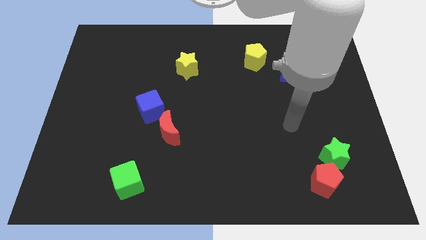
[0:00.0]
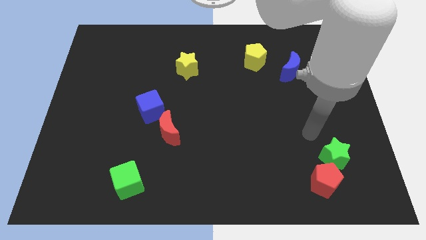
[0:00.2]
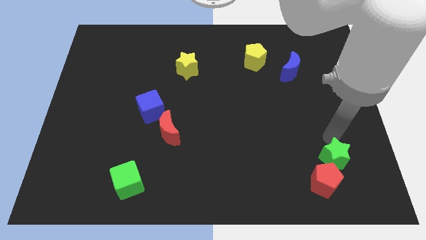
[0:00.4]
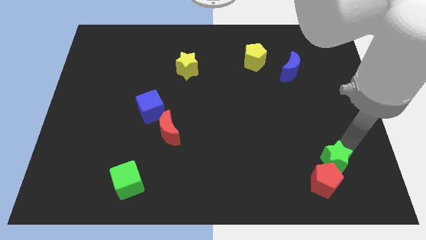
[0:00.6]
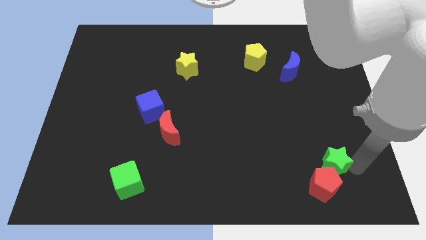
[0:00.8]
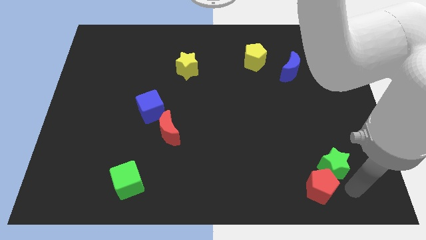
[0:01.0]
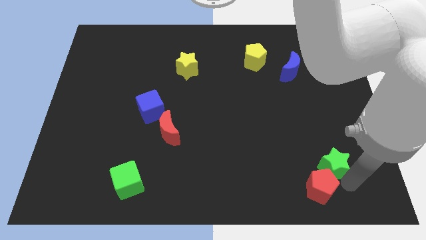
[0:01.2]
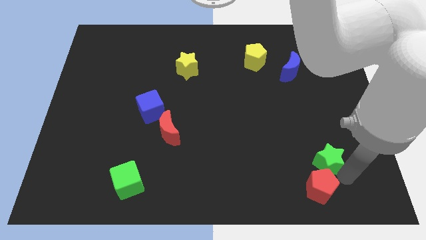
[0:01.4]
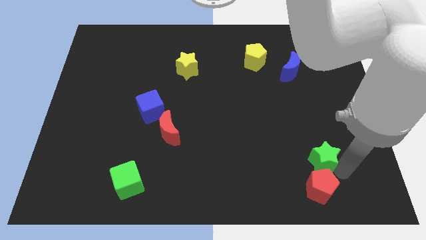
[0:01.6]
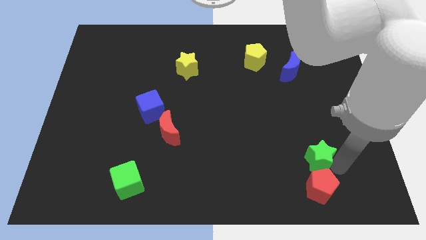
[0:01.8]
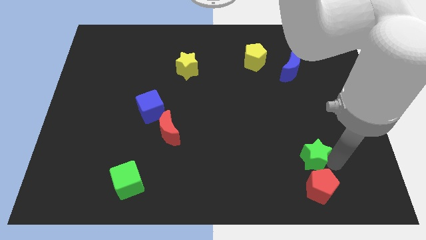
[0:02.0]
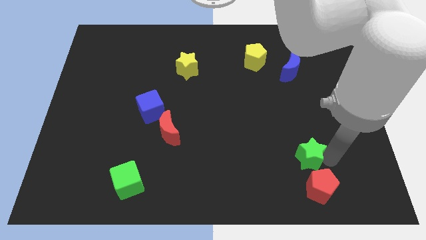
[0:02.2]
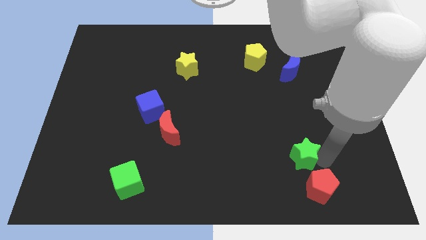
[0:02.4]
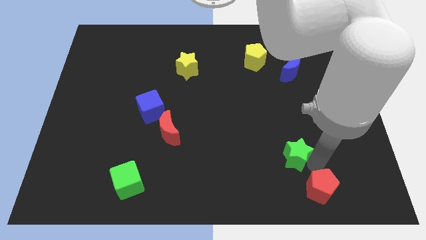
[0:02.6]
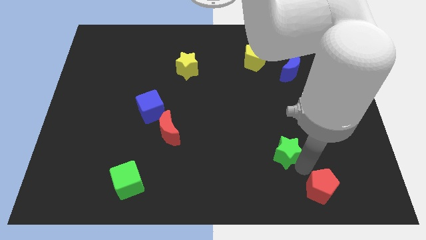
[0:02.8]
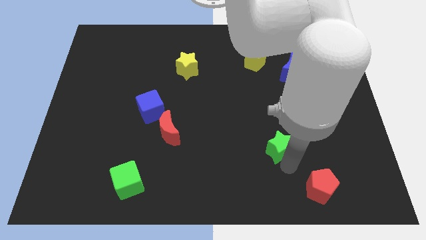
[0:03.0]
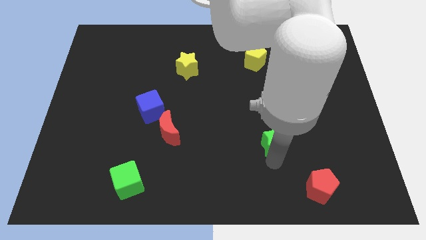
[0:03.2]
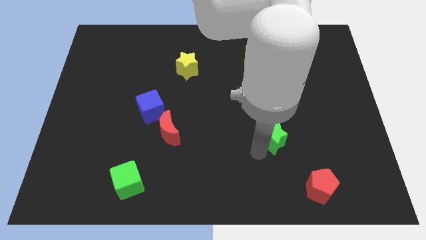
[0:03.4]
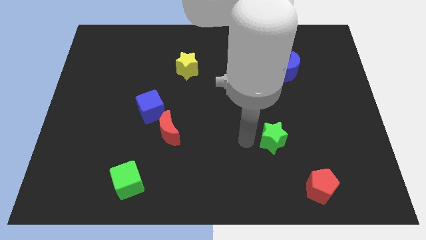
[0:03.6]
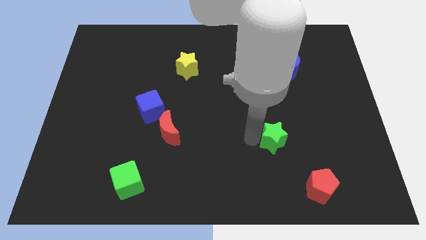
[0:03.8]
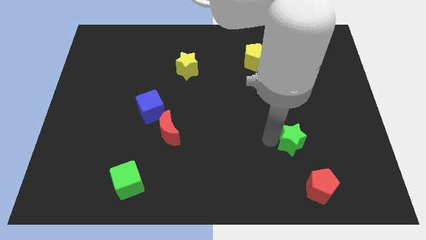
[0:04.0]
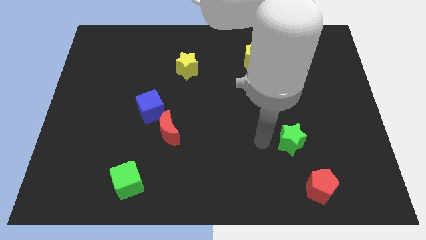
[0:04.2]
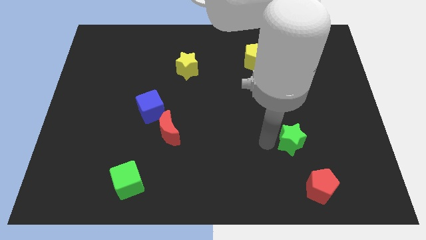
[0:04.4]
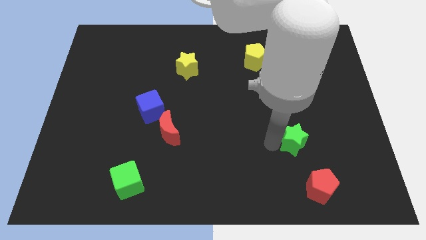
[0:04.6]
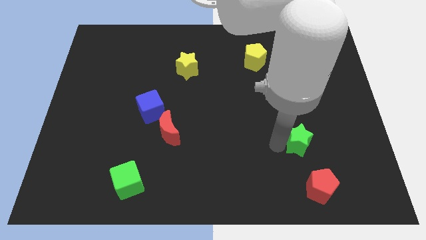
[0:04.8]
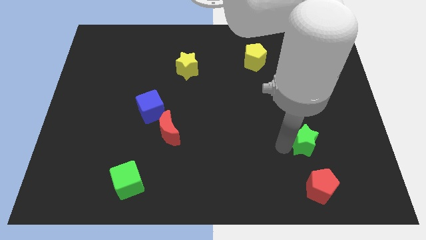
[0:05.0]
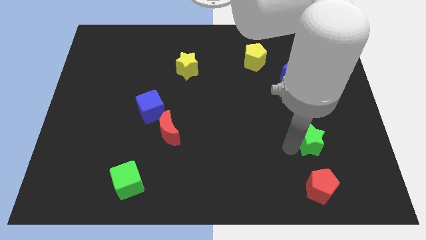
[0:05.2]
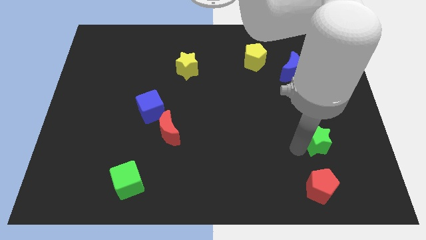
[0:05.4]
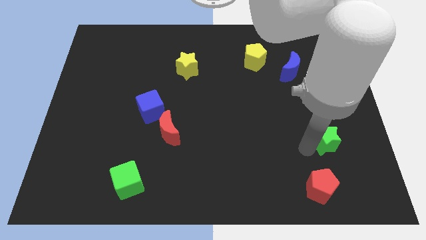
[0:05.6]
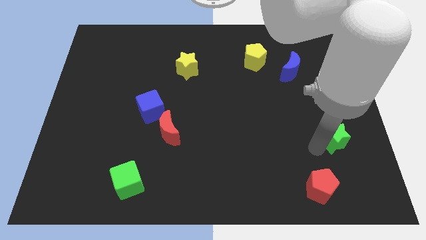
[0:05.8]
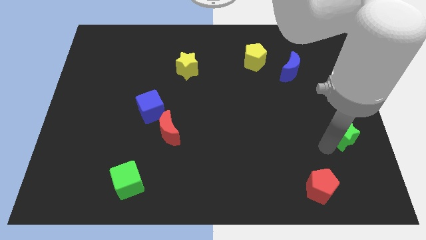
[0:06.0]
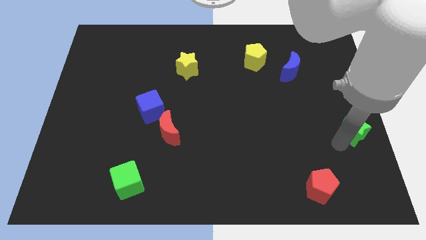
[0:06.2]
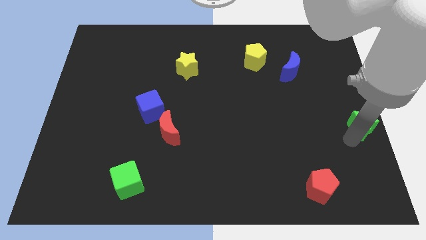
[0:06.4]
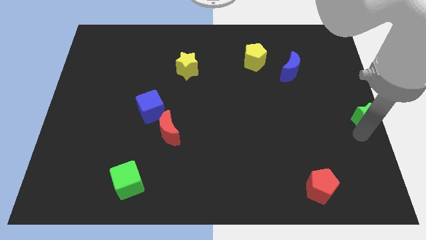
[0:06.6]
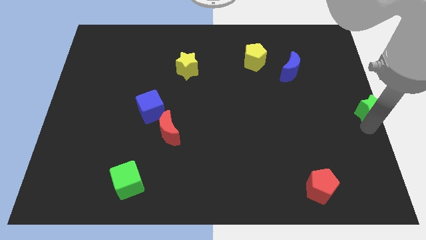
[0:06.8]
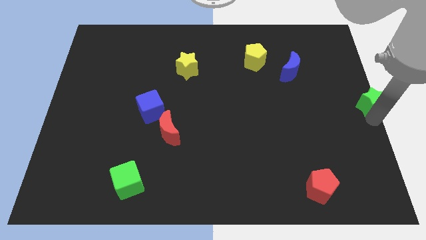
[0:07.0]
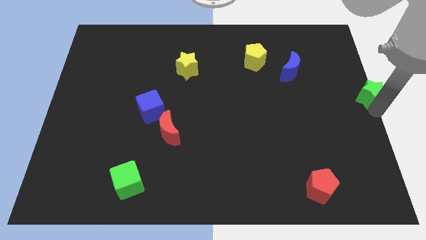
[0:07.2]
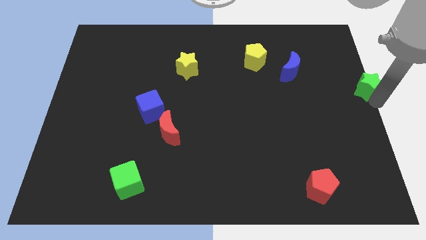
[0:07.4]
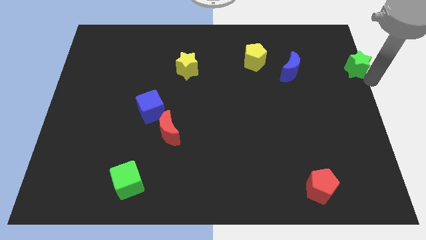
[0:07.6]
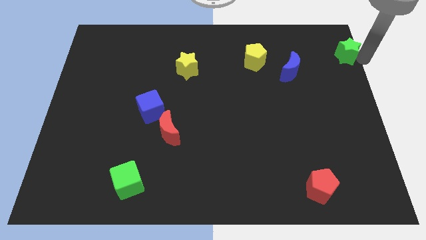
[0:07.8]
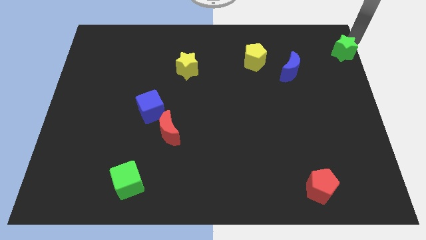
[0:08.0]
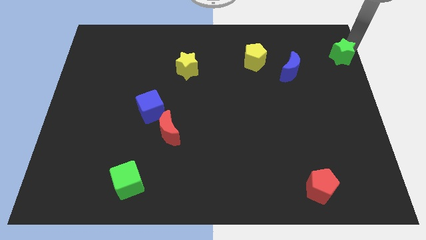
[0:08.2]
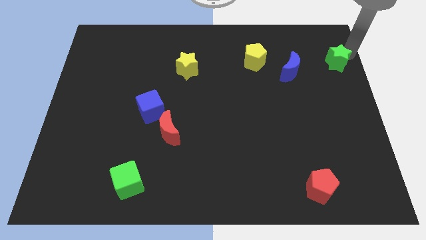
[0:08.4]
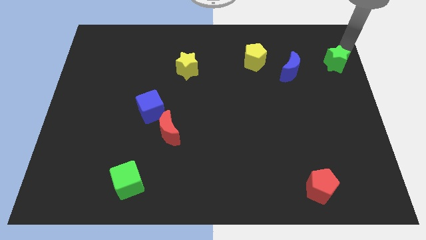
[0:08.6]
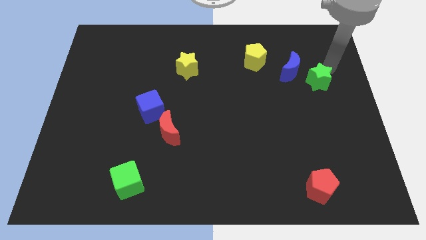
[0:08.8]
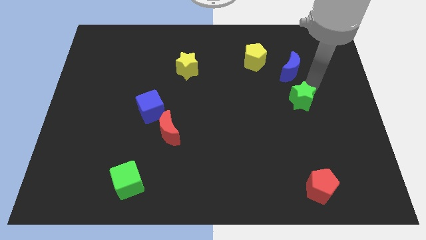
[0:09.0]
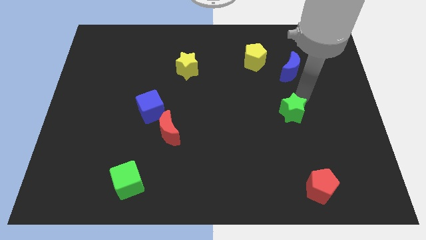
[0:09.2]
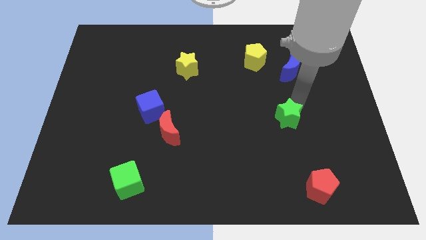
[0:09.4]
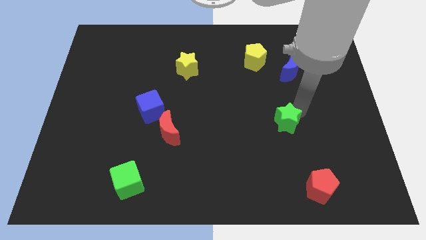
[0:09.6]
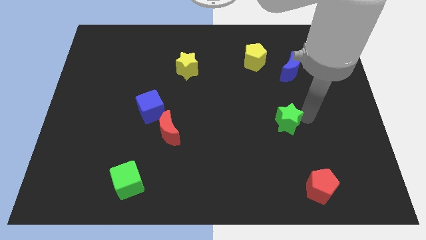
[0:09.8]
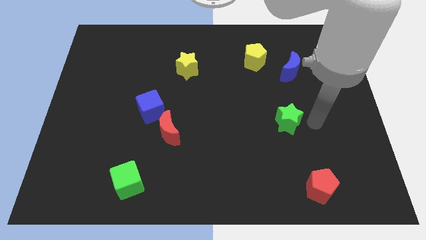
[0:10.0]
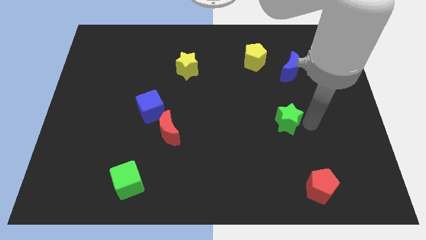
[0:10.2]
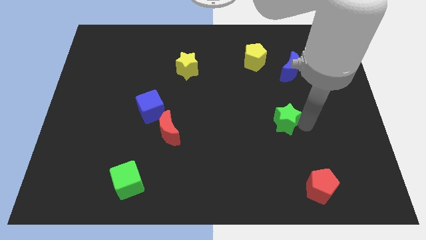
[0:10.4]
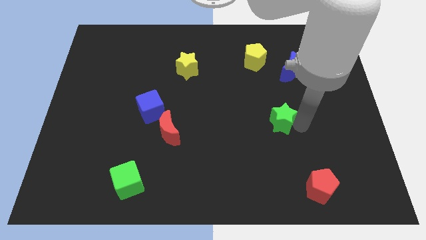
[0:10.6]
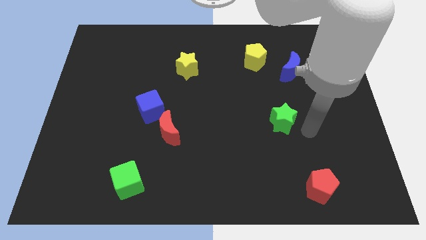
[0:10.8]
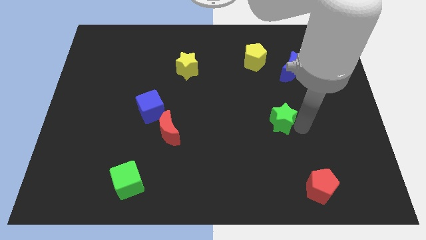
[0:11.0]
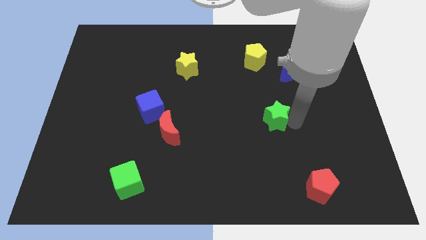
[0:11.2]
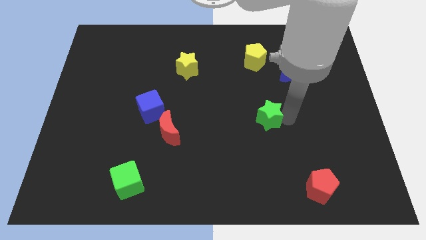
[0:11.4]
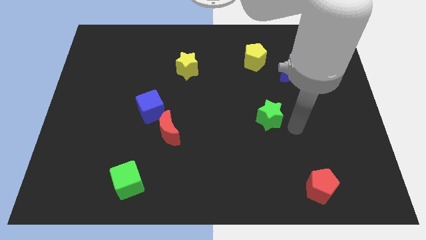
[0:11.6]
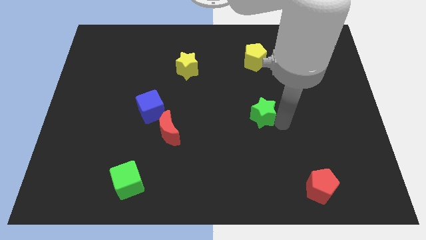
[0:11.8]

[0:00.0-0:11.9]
slide the green star to the center of the board
